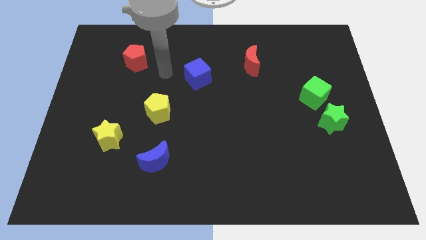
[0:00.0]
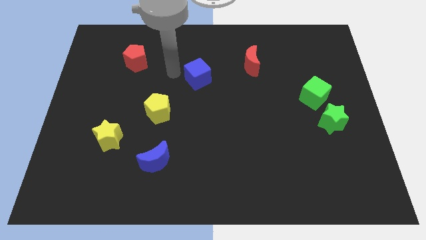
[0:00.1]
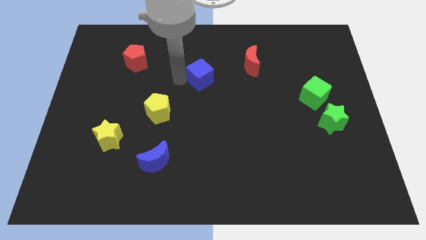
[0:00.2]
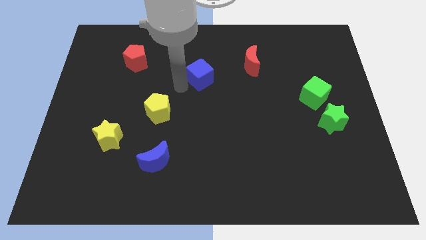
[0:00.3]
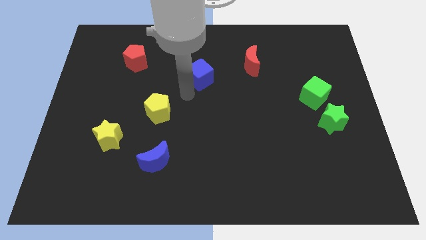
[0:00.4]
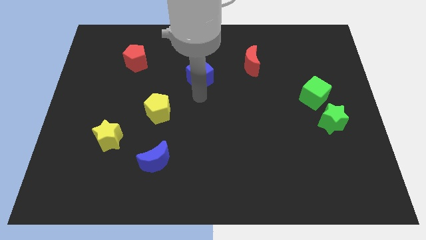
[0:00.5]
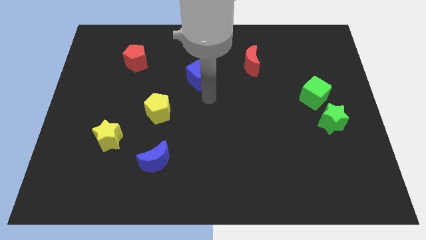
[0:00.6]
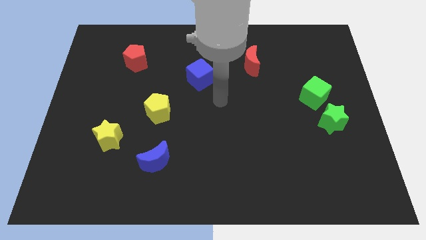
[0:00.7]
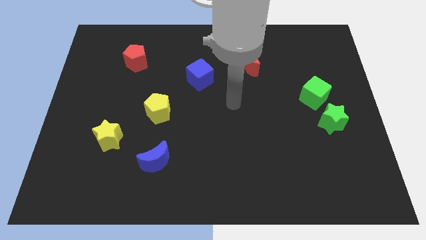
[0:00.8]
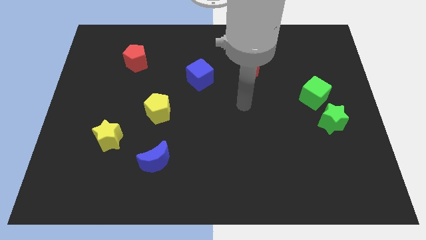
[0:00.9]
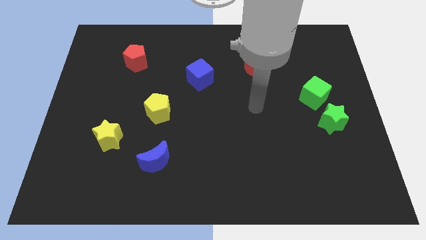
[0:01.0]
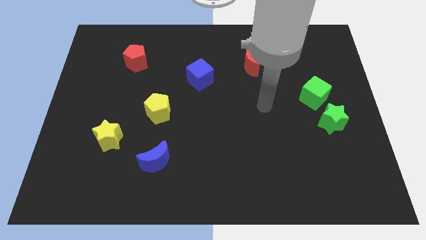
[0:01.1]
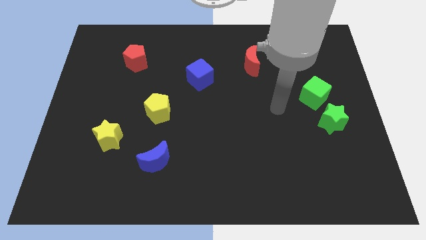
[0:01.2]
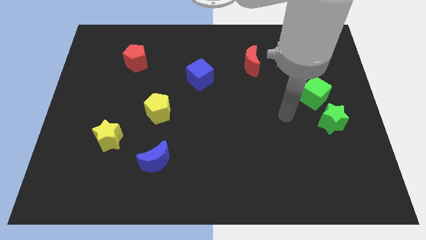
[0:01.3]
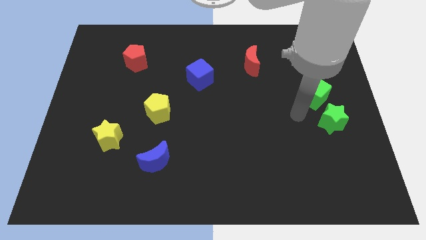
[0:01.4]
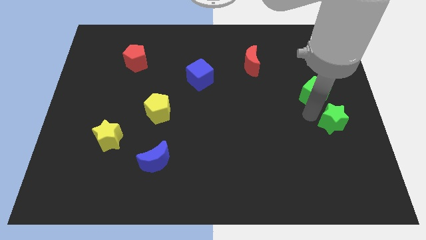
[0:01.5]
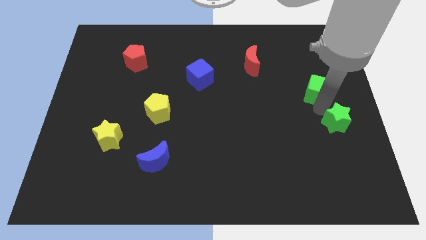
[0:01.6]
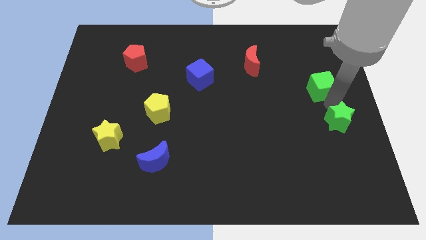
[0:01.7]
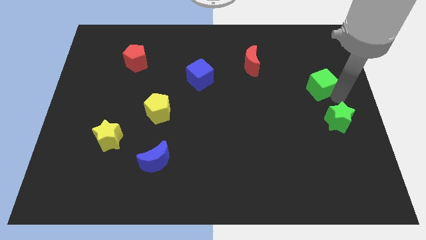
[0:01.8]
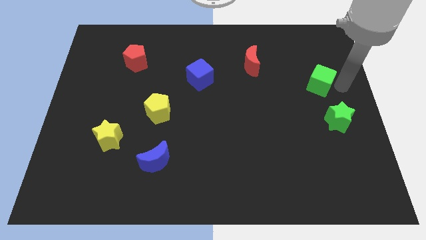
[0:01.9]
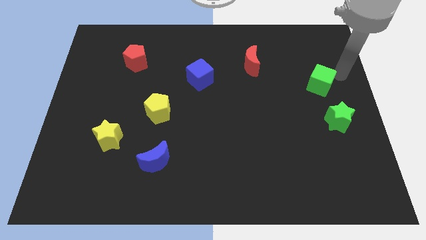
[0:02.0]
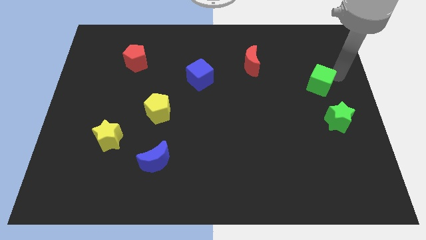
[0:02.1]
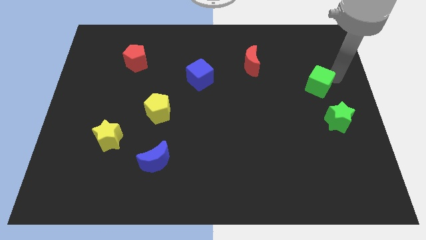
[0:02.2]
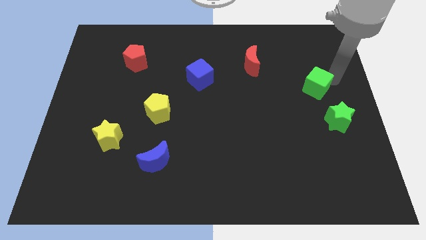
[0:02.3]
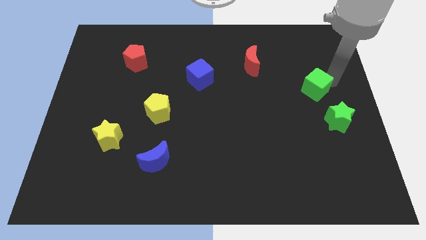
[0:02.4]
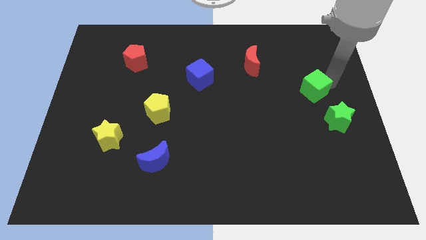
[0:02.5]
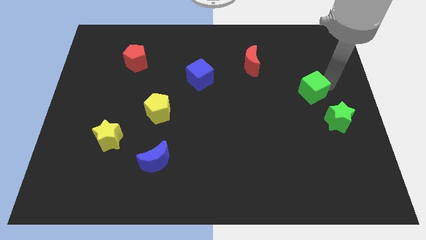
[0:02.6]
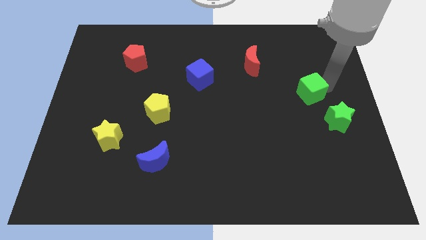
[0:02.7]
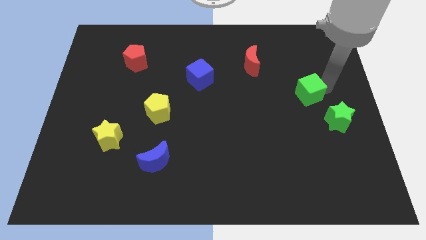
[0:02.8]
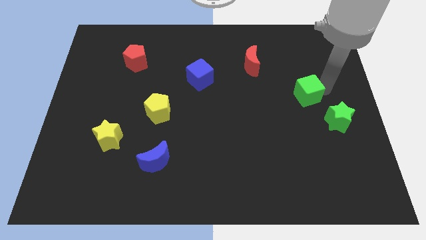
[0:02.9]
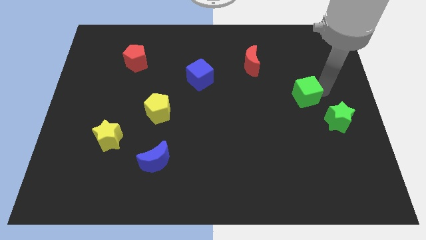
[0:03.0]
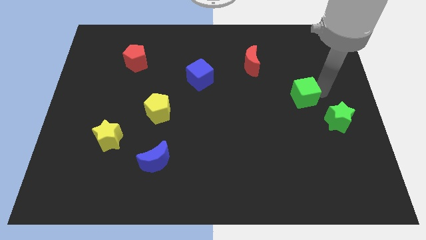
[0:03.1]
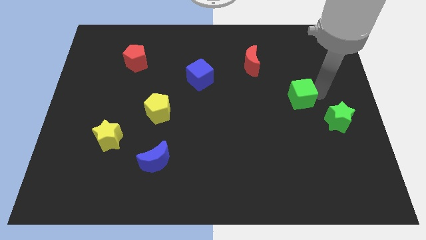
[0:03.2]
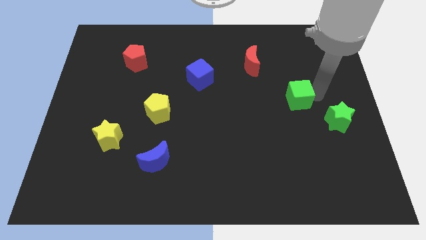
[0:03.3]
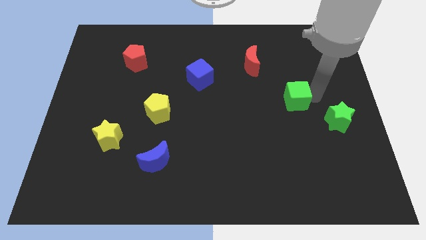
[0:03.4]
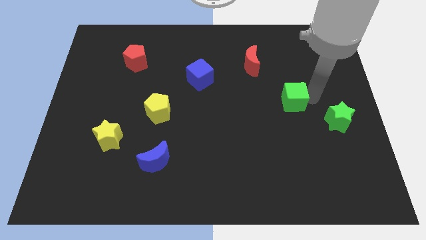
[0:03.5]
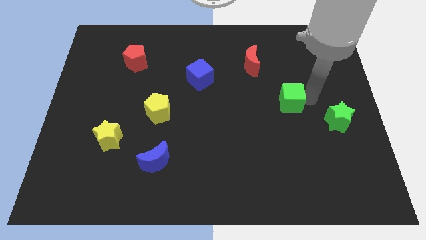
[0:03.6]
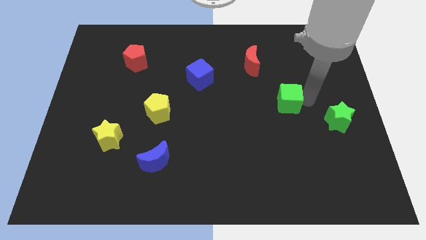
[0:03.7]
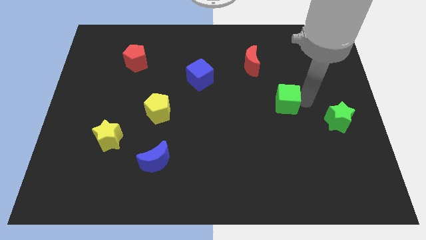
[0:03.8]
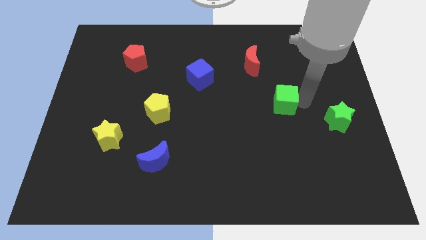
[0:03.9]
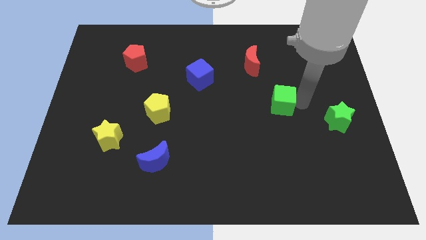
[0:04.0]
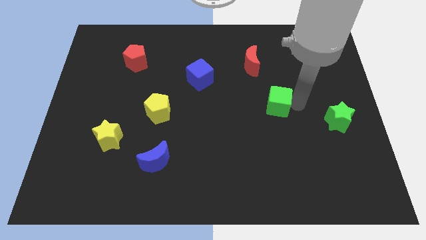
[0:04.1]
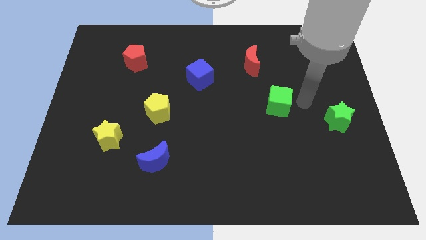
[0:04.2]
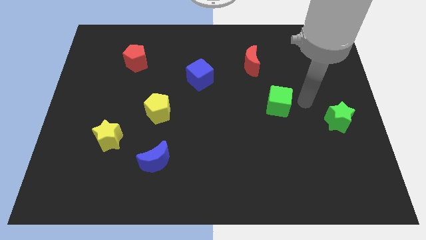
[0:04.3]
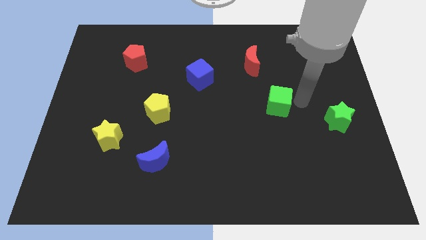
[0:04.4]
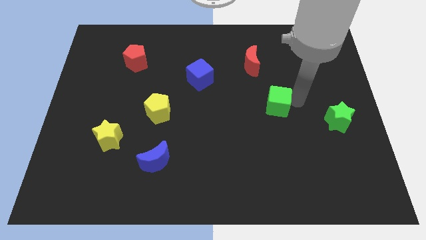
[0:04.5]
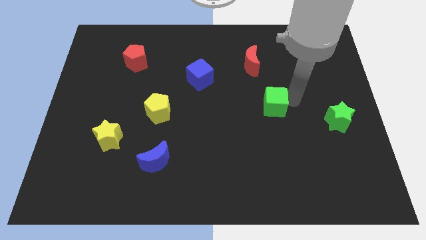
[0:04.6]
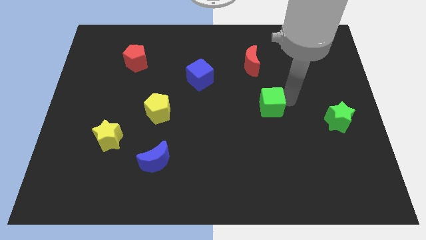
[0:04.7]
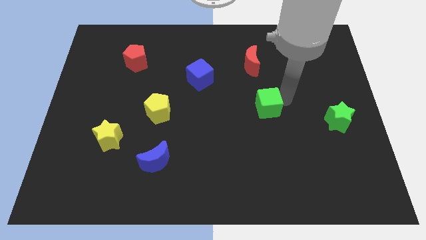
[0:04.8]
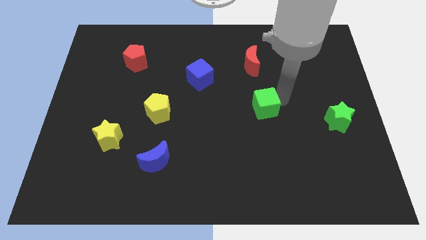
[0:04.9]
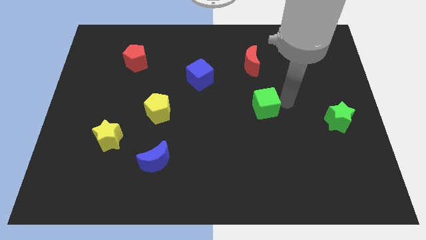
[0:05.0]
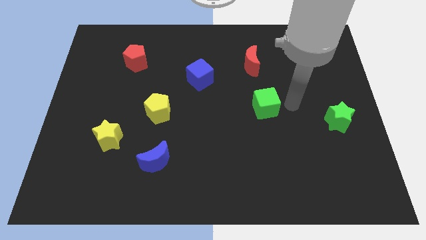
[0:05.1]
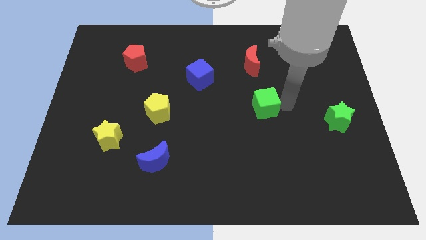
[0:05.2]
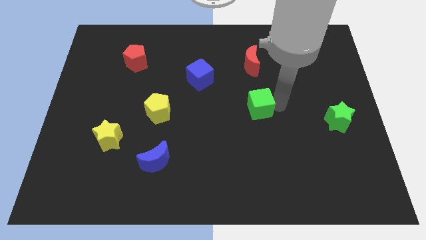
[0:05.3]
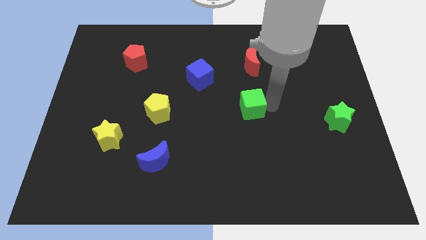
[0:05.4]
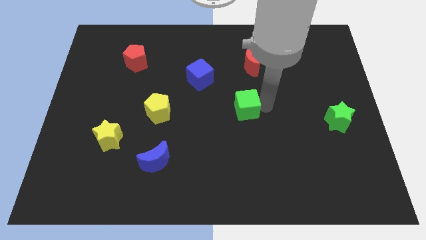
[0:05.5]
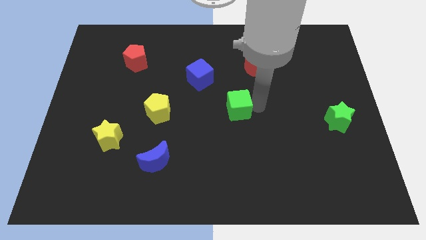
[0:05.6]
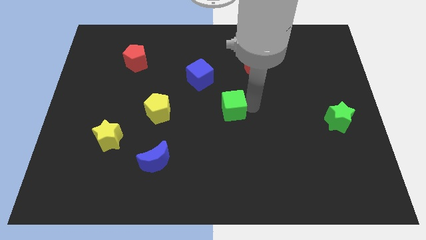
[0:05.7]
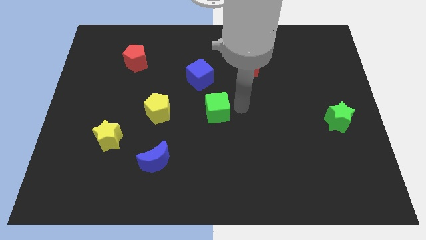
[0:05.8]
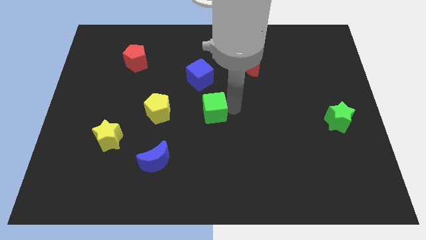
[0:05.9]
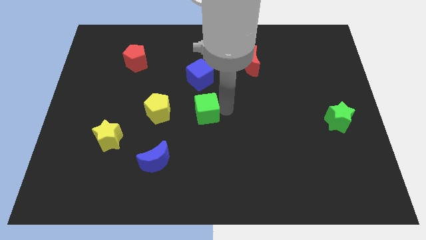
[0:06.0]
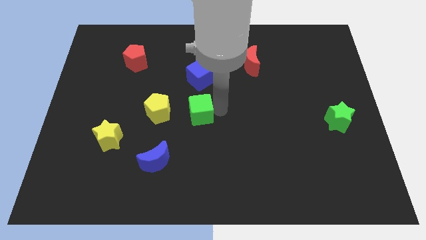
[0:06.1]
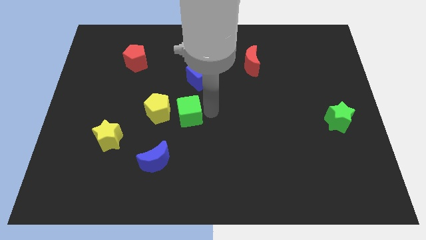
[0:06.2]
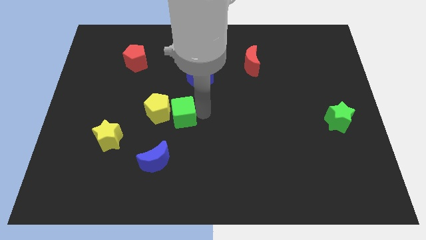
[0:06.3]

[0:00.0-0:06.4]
slide the green cube towards the yellow pentagon

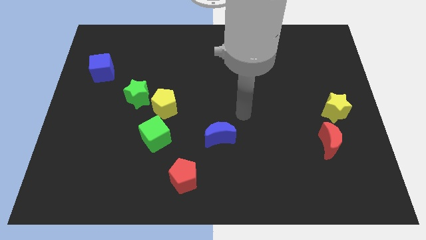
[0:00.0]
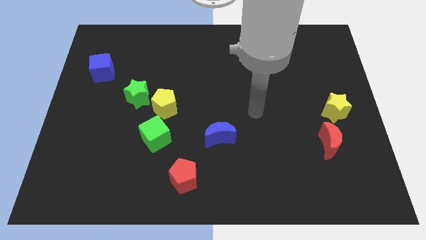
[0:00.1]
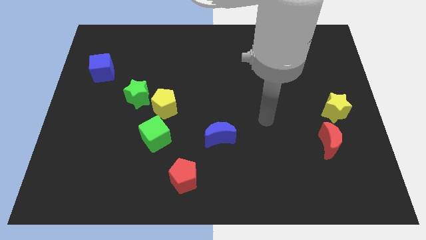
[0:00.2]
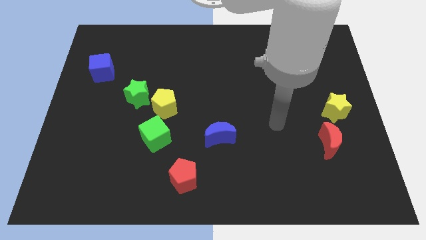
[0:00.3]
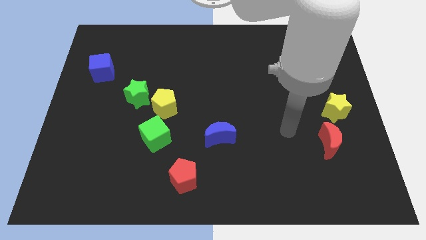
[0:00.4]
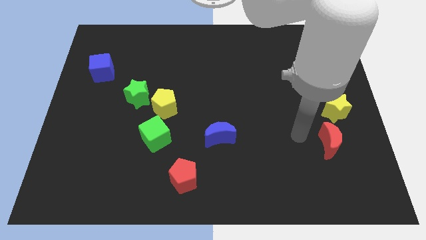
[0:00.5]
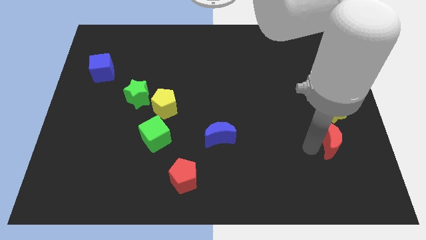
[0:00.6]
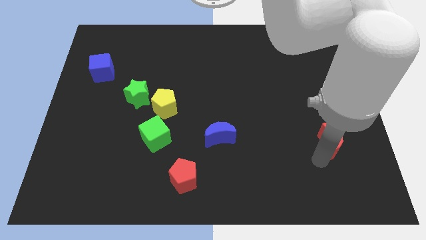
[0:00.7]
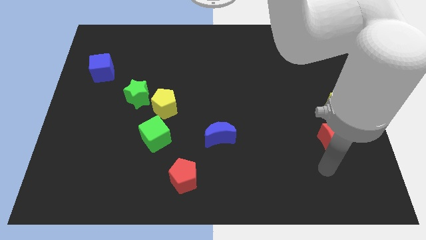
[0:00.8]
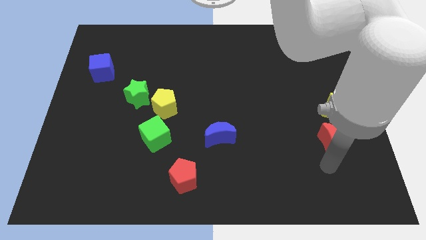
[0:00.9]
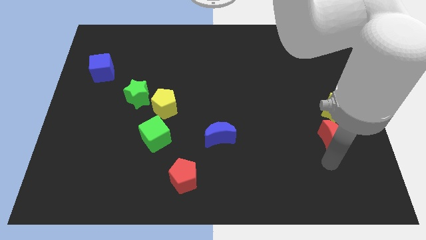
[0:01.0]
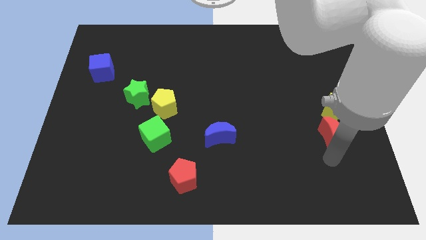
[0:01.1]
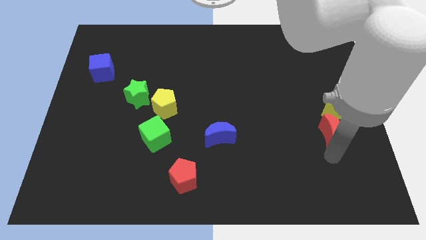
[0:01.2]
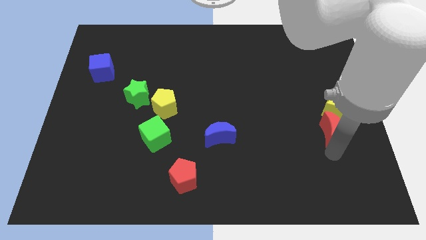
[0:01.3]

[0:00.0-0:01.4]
slide the red moon next to the yellow star
